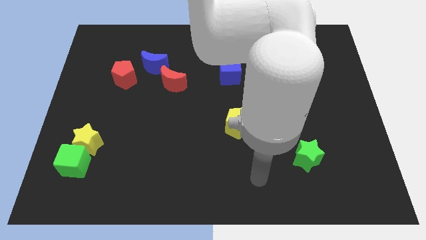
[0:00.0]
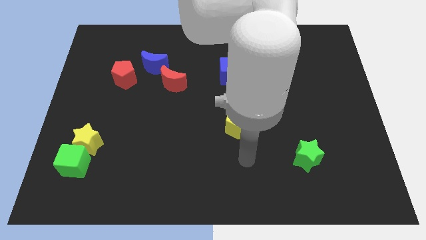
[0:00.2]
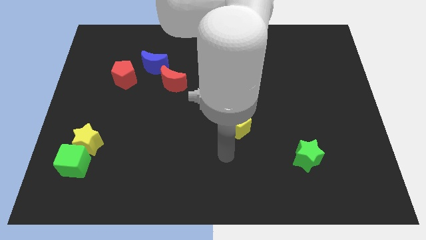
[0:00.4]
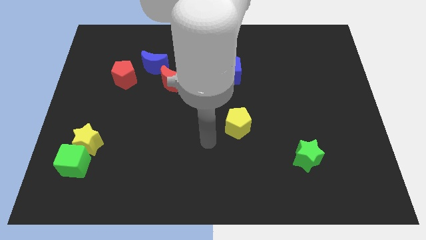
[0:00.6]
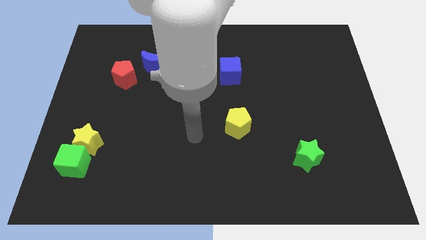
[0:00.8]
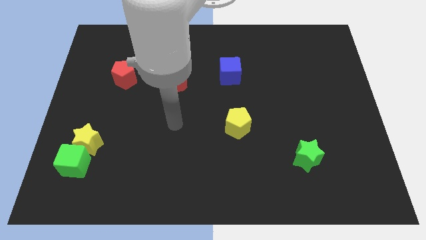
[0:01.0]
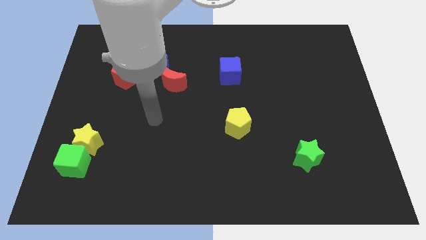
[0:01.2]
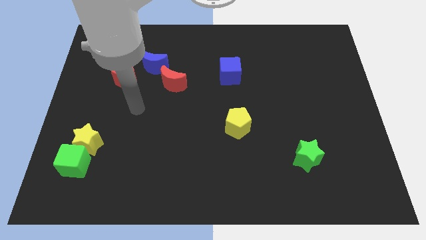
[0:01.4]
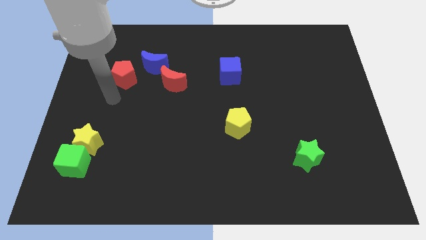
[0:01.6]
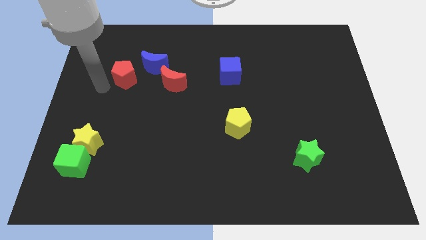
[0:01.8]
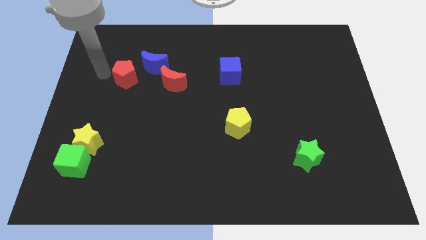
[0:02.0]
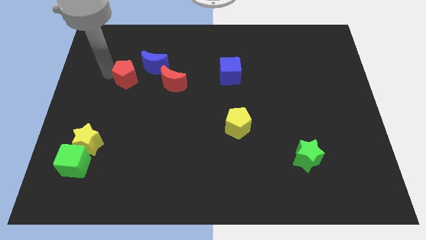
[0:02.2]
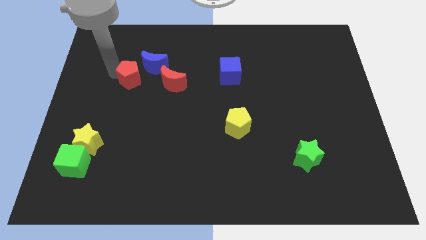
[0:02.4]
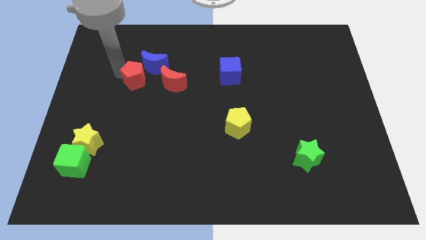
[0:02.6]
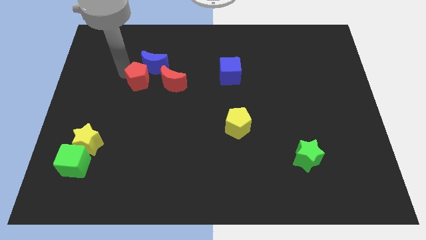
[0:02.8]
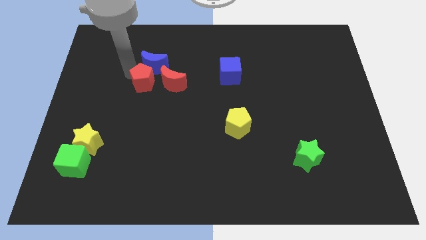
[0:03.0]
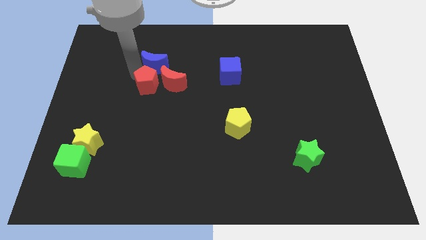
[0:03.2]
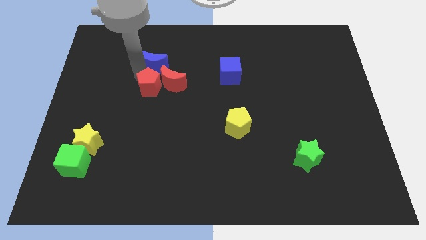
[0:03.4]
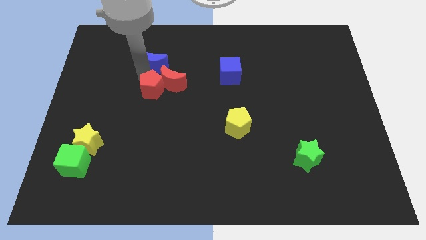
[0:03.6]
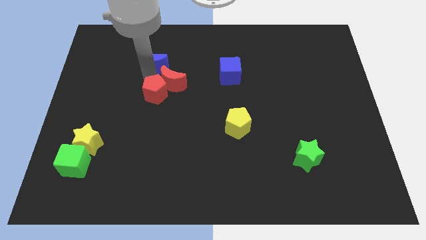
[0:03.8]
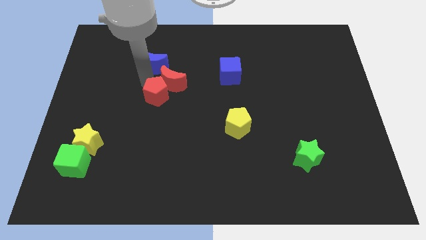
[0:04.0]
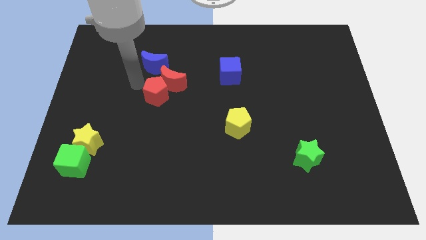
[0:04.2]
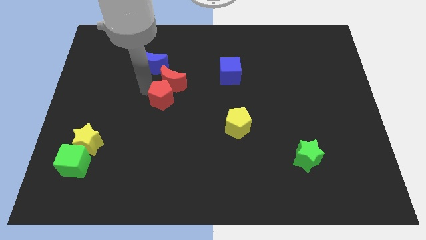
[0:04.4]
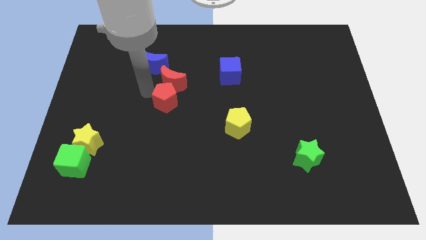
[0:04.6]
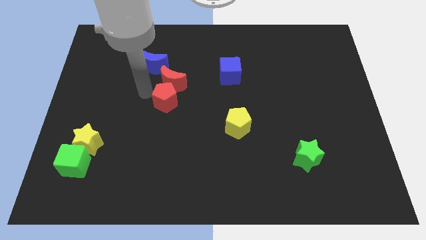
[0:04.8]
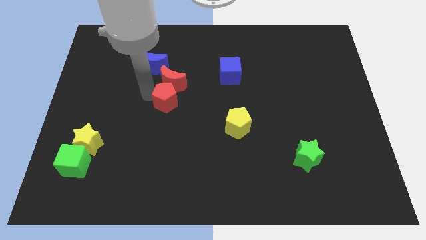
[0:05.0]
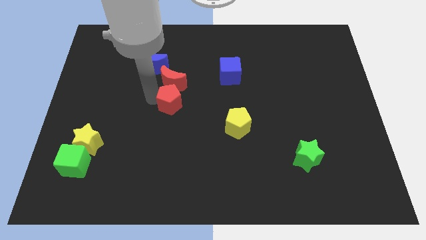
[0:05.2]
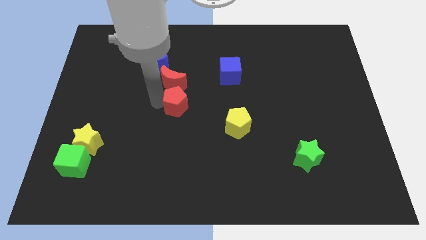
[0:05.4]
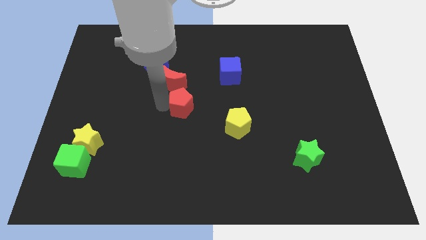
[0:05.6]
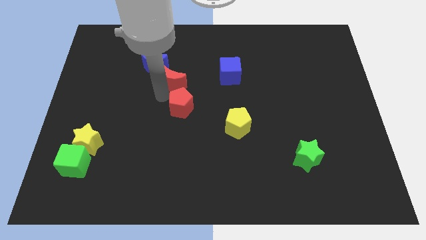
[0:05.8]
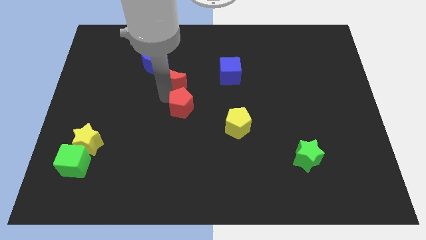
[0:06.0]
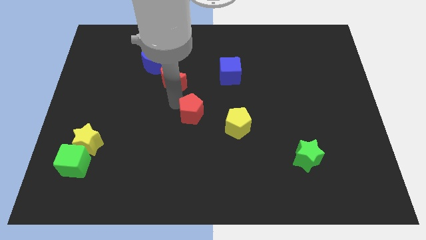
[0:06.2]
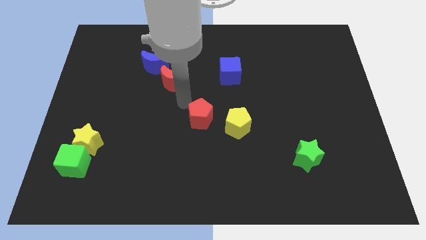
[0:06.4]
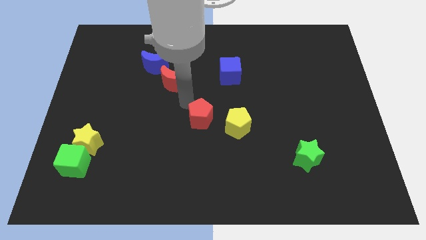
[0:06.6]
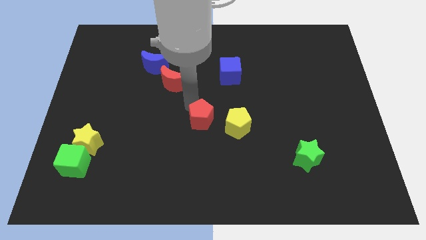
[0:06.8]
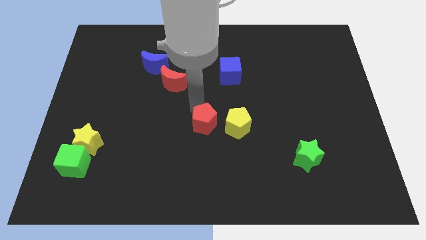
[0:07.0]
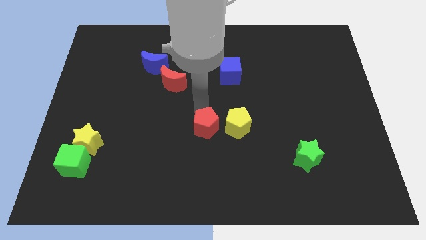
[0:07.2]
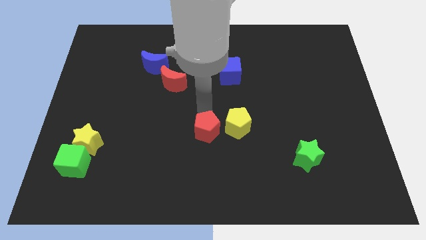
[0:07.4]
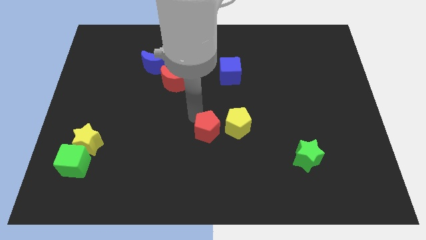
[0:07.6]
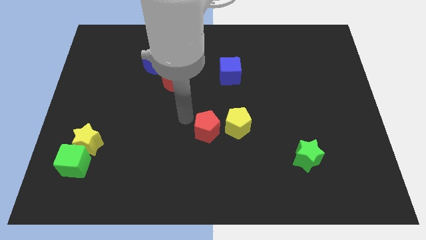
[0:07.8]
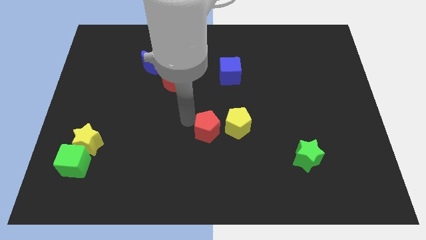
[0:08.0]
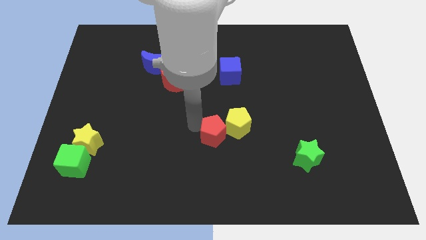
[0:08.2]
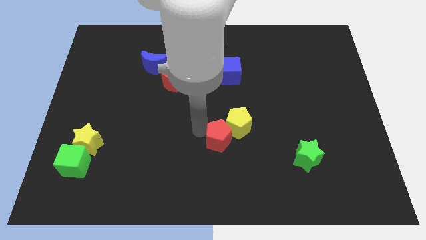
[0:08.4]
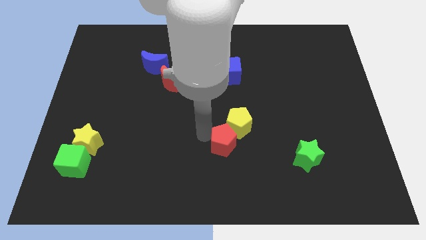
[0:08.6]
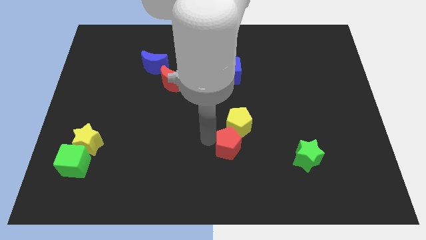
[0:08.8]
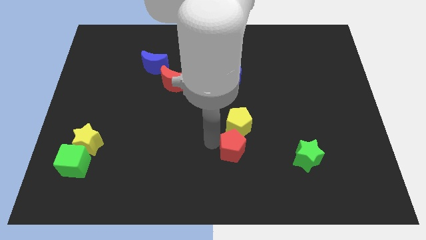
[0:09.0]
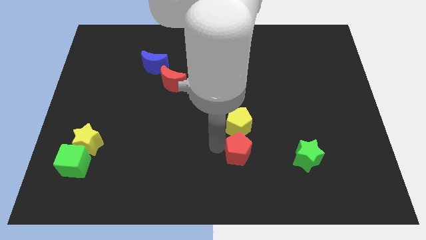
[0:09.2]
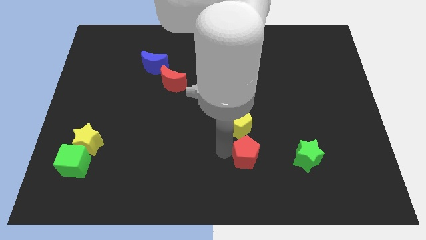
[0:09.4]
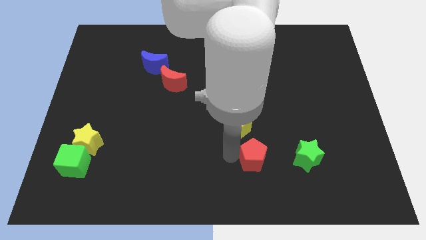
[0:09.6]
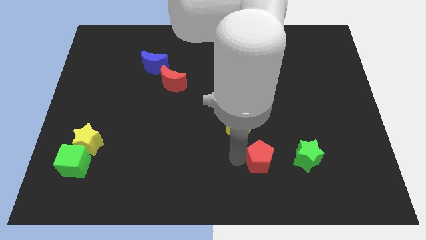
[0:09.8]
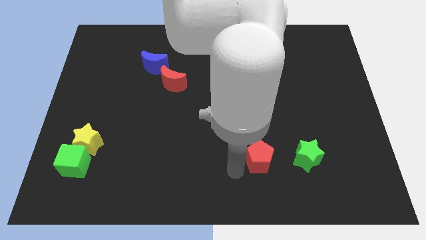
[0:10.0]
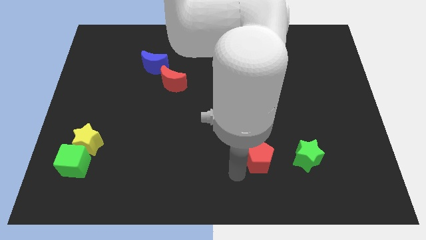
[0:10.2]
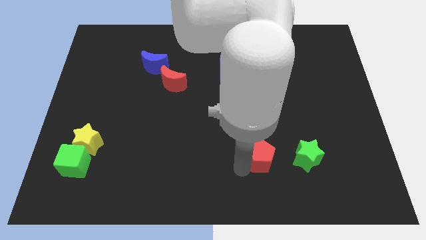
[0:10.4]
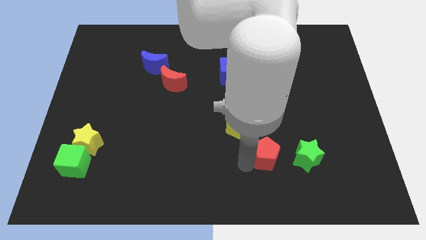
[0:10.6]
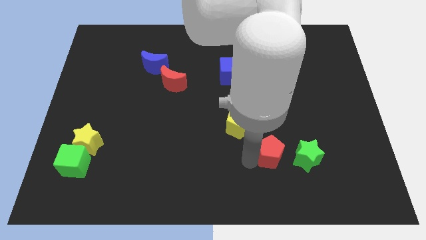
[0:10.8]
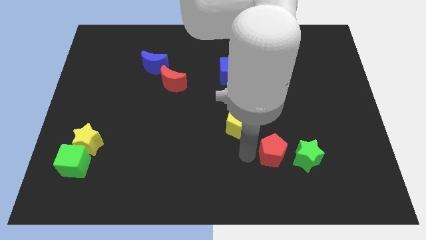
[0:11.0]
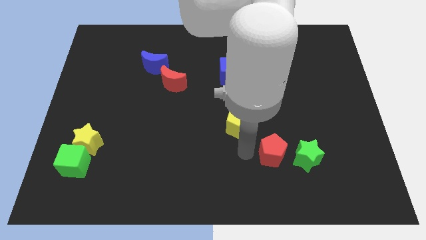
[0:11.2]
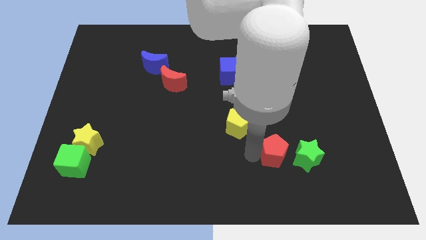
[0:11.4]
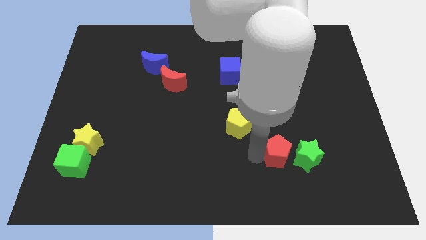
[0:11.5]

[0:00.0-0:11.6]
push the red pentagon next to the green star
